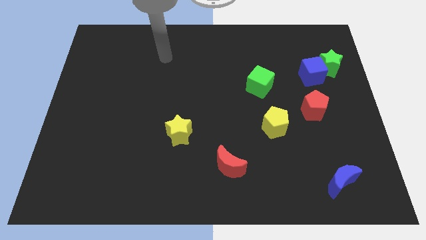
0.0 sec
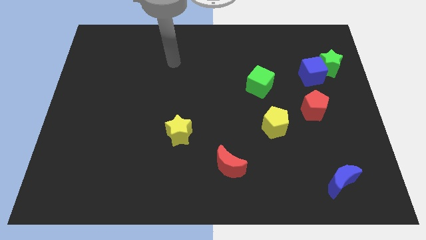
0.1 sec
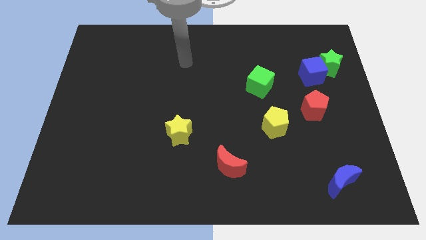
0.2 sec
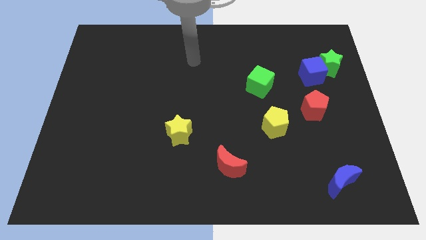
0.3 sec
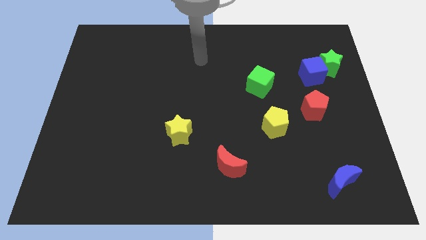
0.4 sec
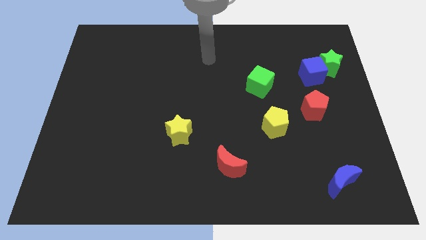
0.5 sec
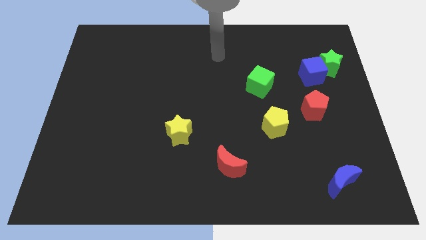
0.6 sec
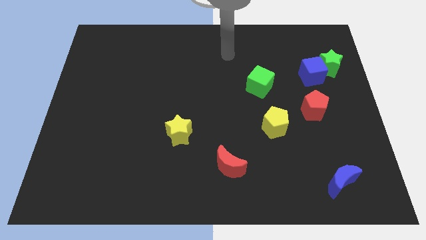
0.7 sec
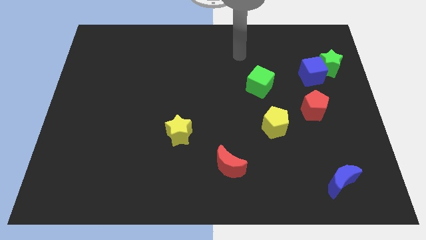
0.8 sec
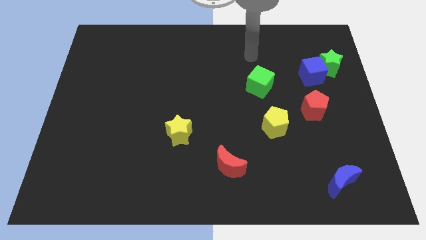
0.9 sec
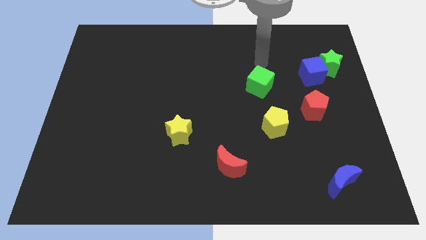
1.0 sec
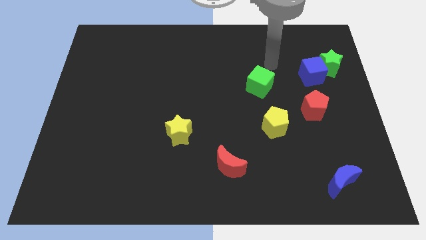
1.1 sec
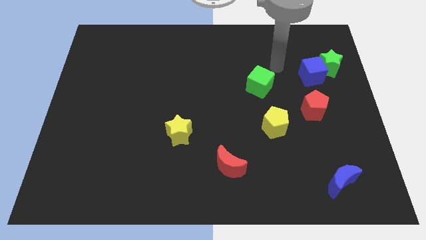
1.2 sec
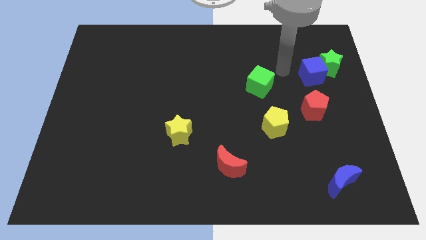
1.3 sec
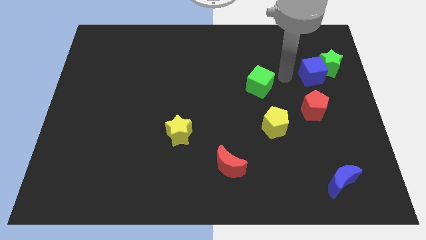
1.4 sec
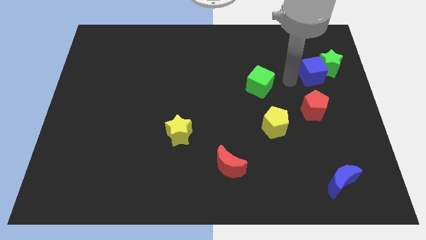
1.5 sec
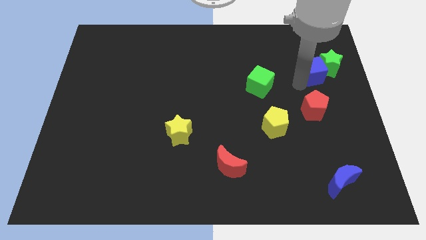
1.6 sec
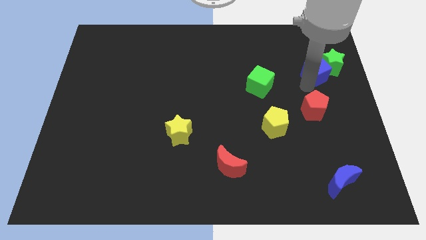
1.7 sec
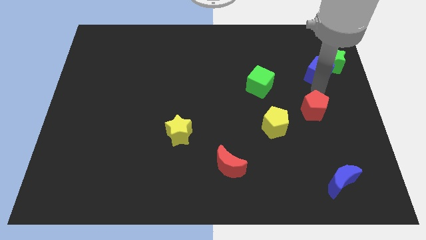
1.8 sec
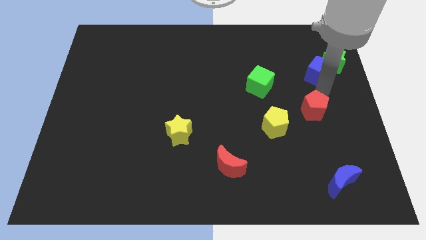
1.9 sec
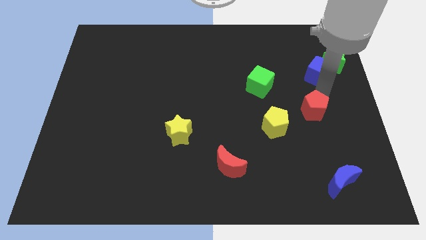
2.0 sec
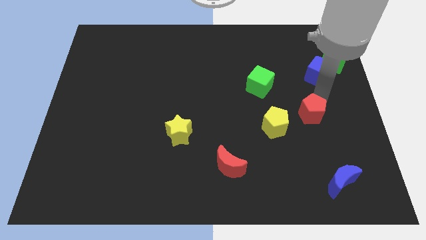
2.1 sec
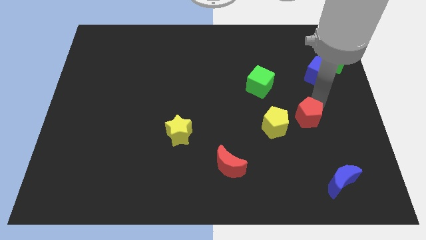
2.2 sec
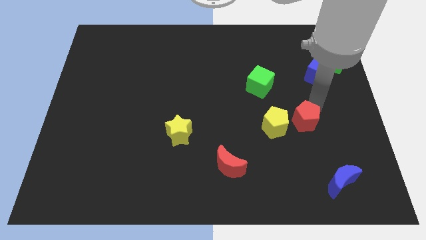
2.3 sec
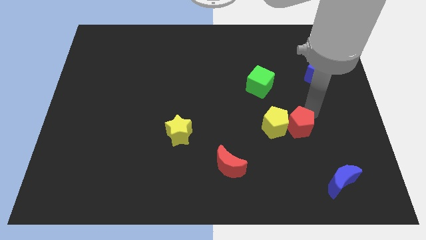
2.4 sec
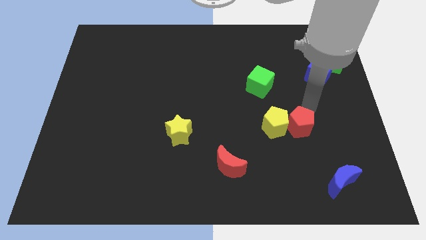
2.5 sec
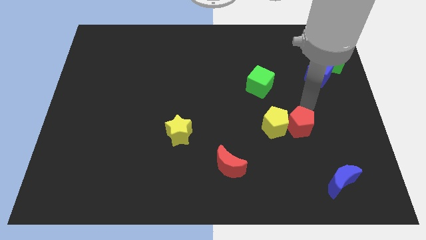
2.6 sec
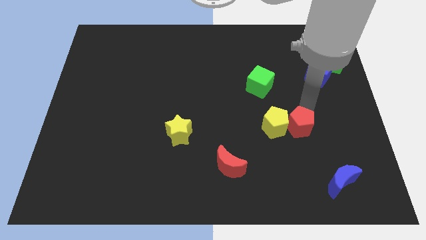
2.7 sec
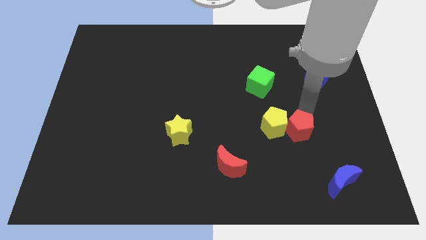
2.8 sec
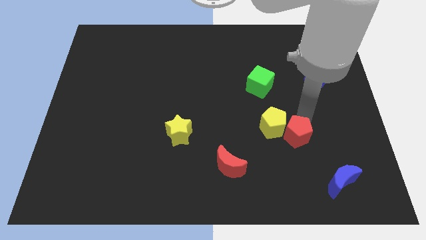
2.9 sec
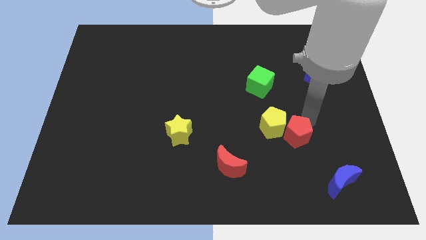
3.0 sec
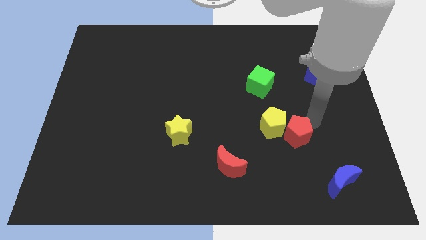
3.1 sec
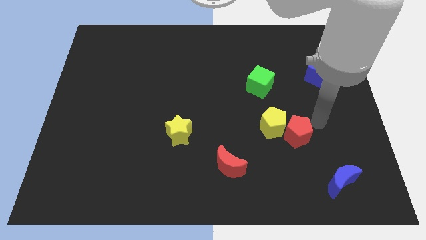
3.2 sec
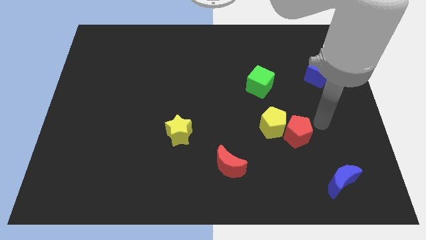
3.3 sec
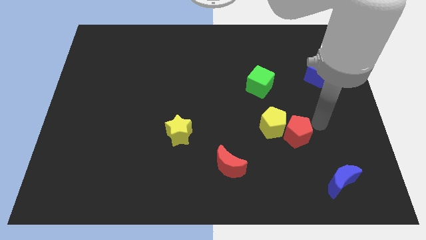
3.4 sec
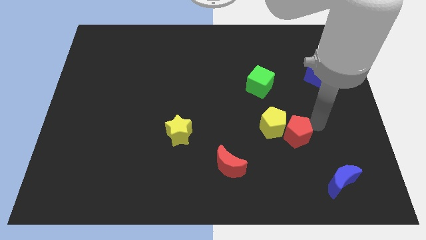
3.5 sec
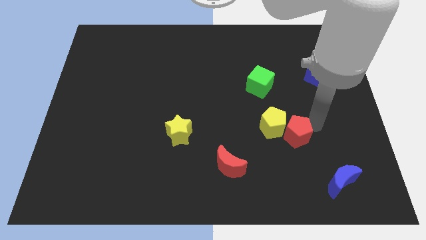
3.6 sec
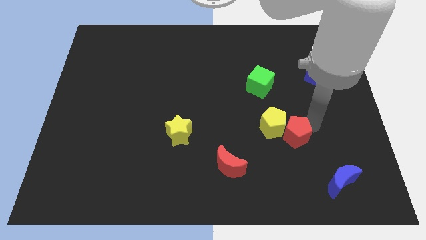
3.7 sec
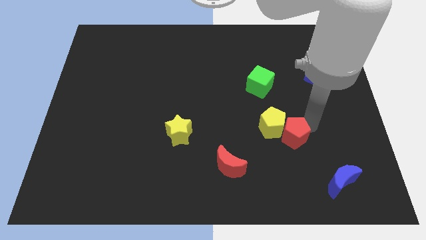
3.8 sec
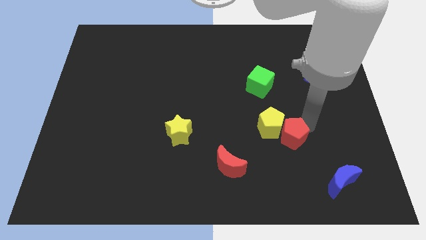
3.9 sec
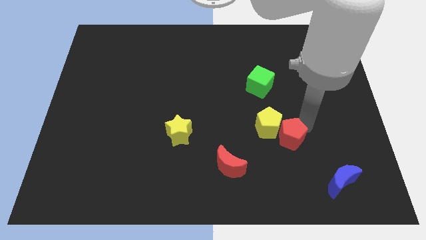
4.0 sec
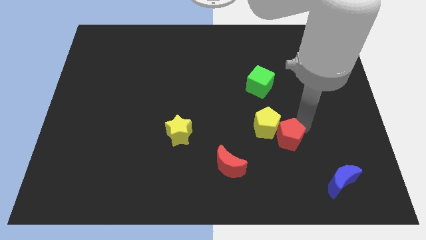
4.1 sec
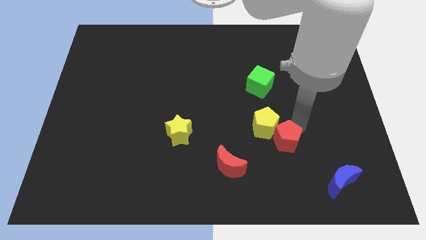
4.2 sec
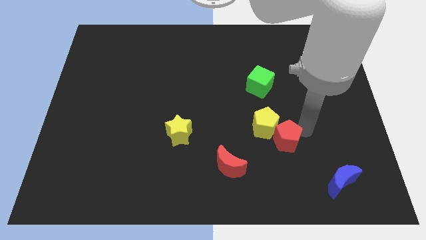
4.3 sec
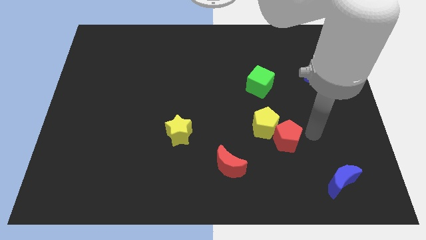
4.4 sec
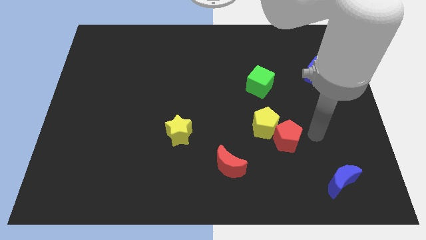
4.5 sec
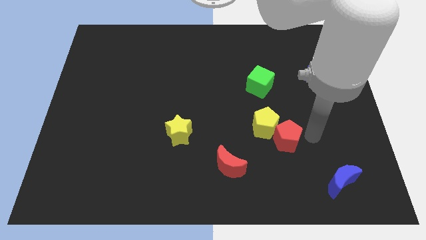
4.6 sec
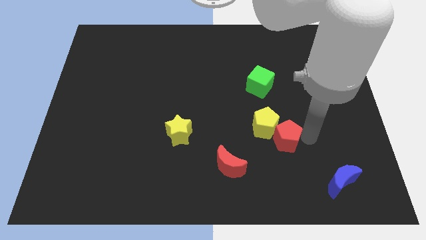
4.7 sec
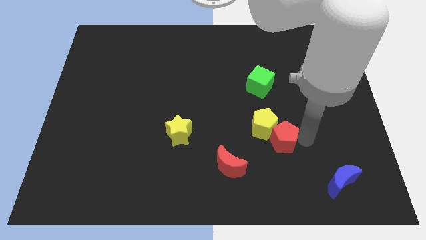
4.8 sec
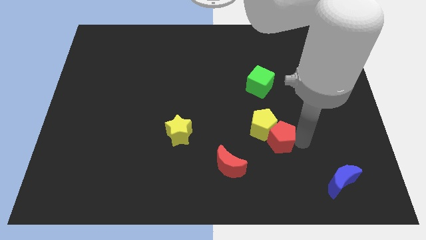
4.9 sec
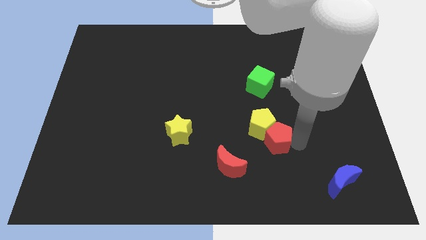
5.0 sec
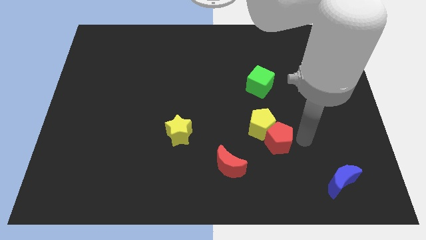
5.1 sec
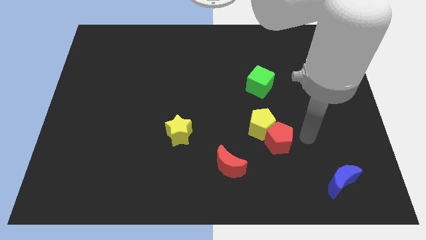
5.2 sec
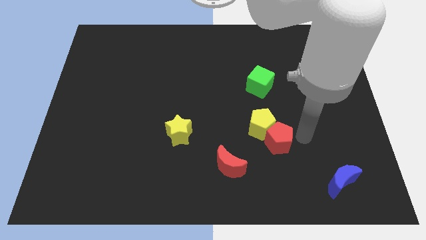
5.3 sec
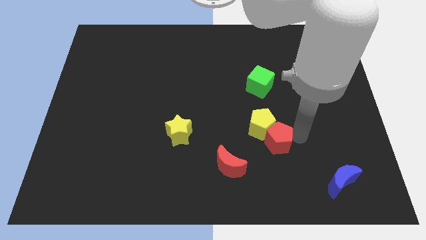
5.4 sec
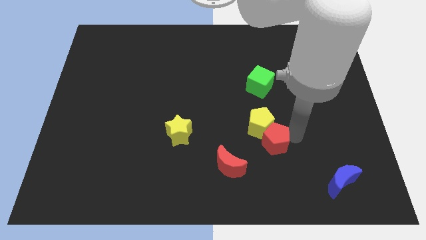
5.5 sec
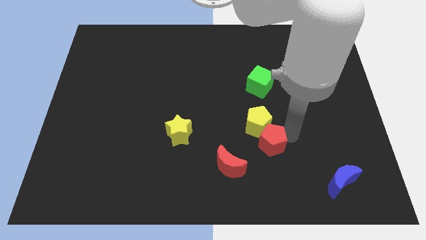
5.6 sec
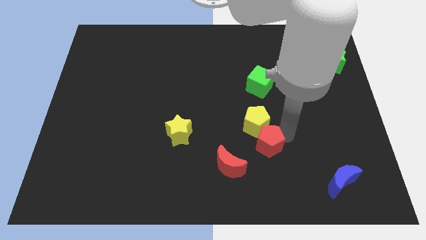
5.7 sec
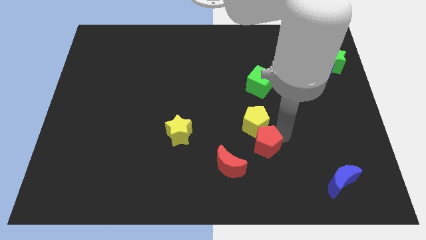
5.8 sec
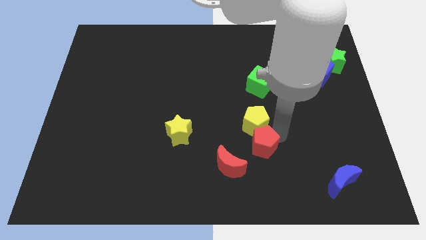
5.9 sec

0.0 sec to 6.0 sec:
slide the red pentagon to the bottom left side of the yellow pentagon

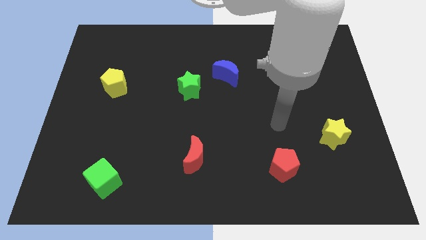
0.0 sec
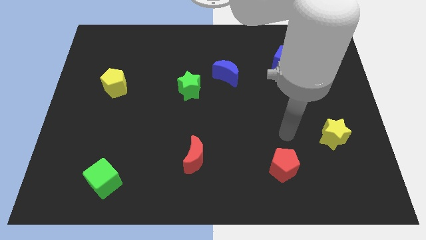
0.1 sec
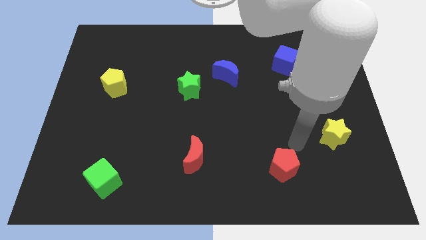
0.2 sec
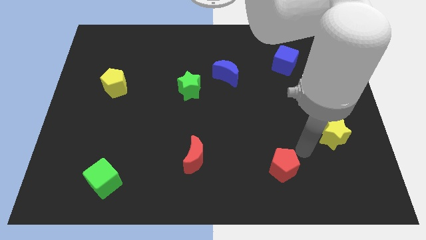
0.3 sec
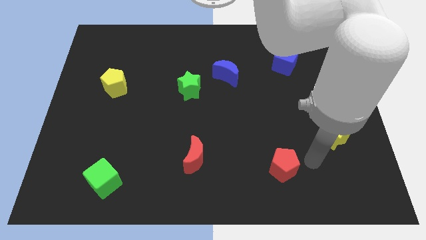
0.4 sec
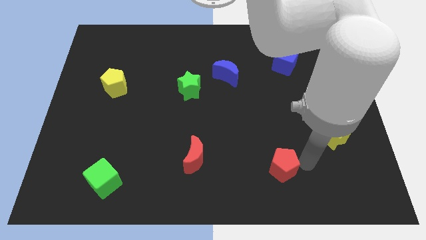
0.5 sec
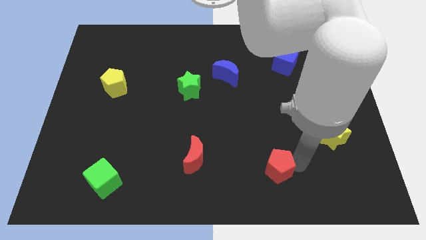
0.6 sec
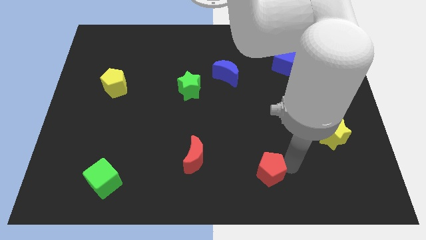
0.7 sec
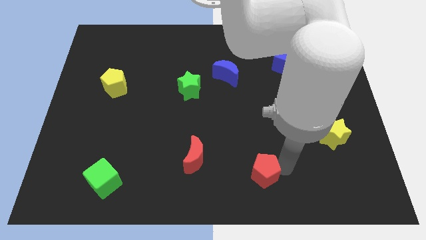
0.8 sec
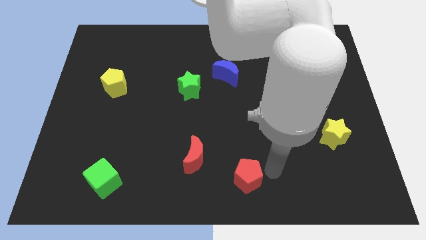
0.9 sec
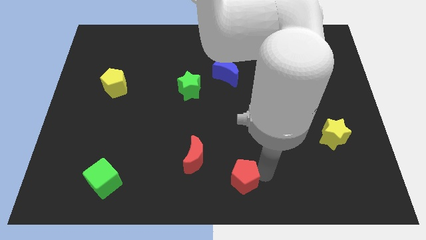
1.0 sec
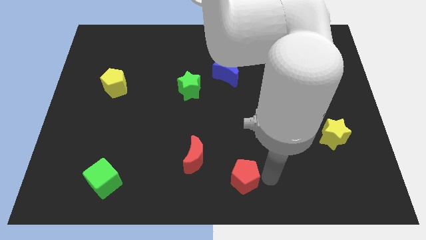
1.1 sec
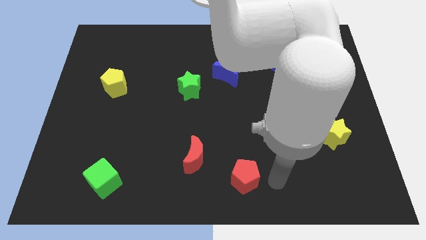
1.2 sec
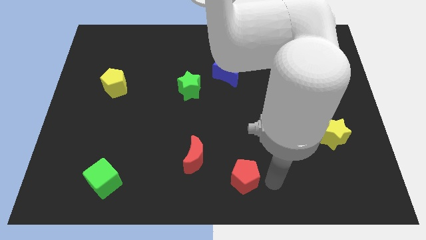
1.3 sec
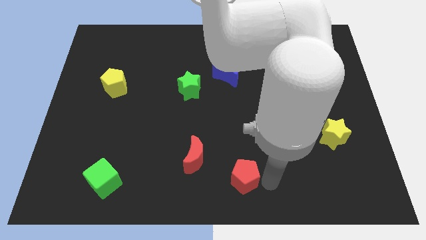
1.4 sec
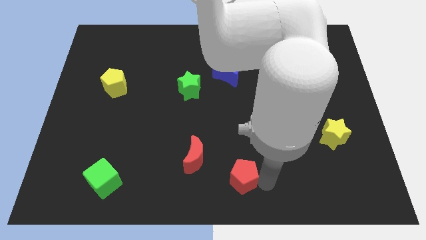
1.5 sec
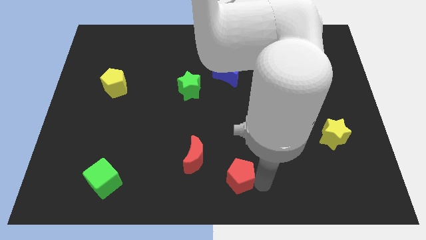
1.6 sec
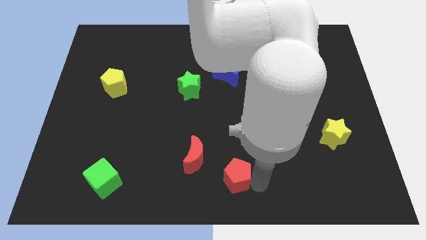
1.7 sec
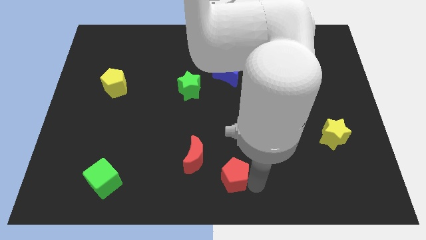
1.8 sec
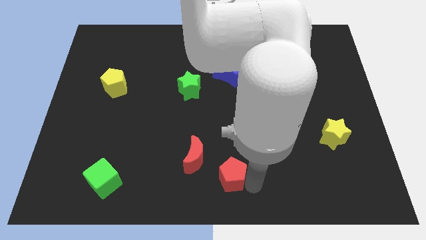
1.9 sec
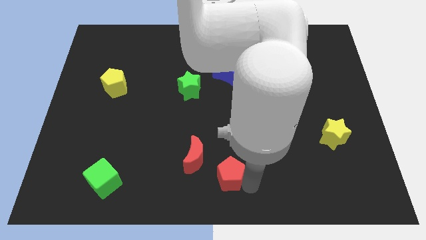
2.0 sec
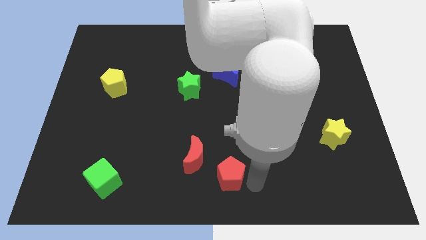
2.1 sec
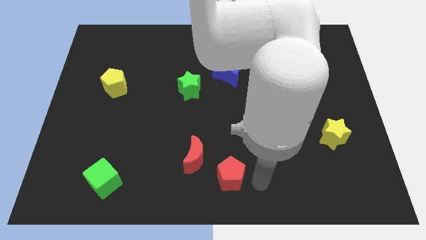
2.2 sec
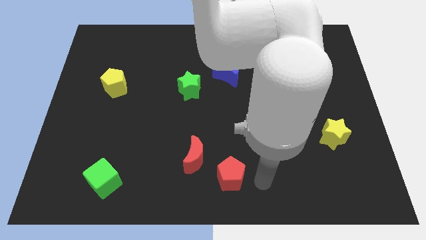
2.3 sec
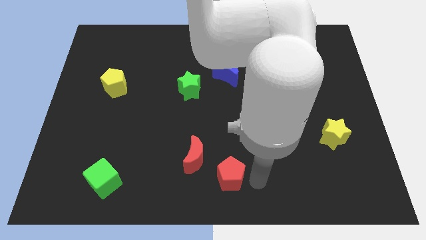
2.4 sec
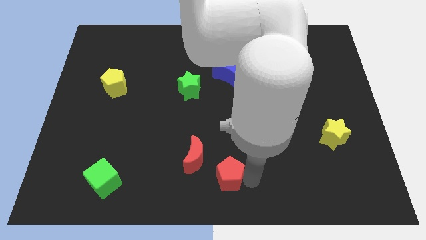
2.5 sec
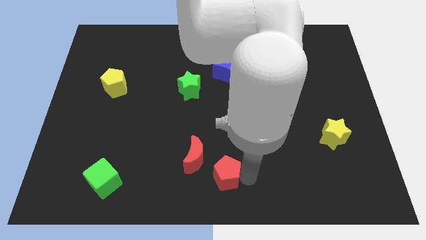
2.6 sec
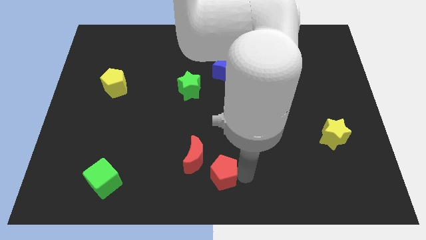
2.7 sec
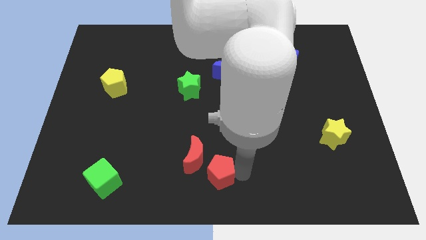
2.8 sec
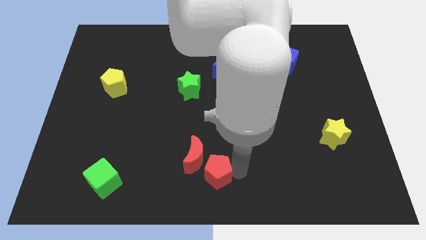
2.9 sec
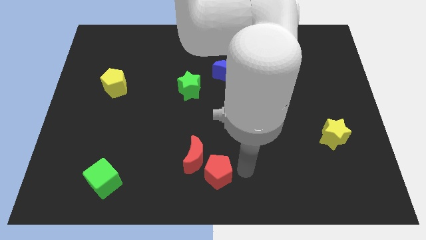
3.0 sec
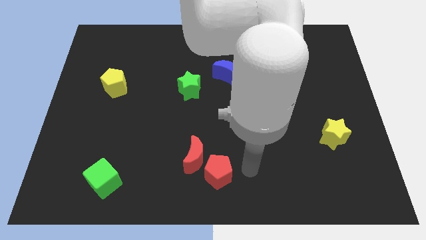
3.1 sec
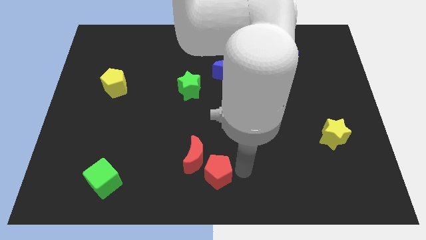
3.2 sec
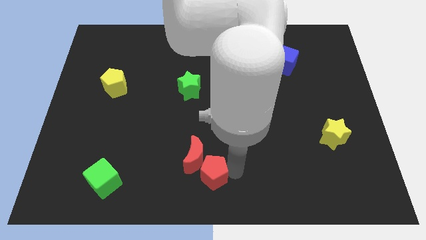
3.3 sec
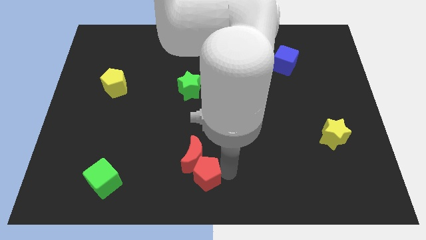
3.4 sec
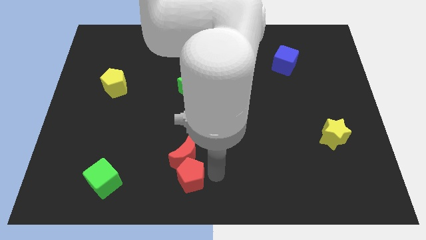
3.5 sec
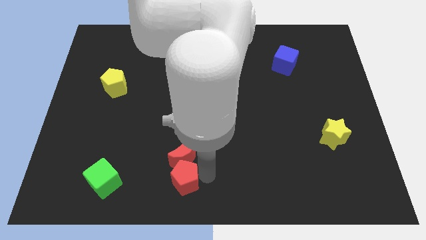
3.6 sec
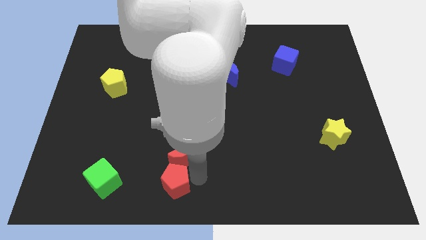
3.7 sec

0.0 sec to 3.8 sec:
slide the red pentagon right of the green cube
